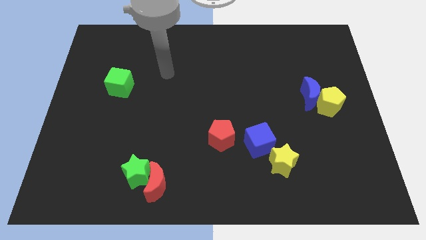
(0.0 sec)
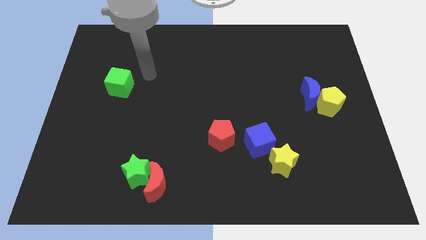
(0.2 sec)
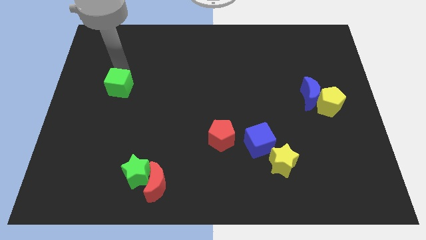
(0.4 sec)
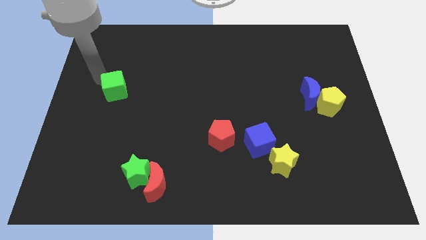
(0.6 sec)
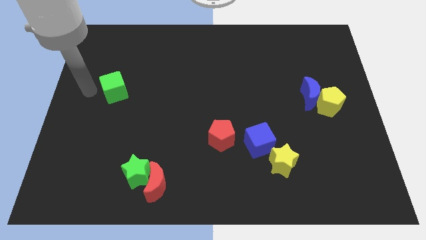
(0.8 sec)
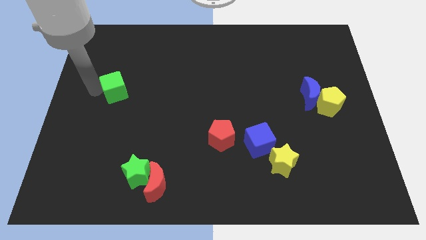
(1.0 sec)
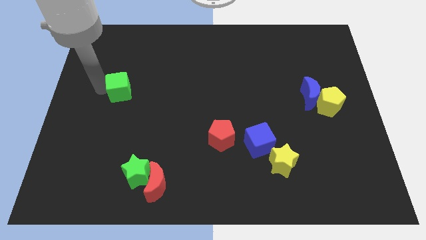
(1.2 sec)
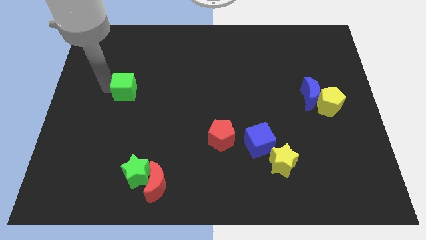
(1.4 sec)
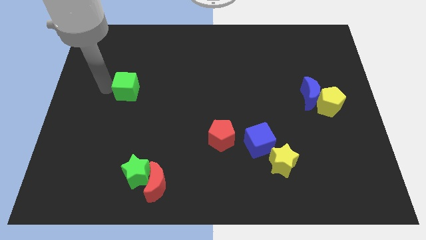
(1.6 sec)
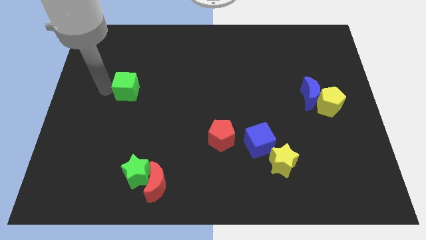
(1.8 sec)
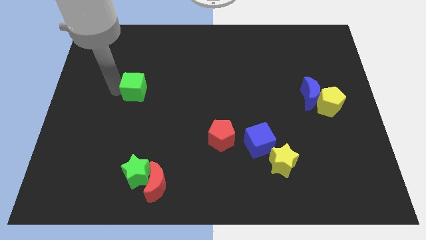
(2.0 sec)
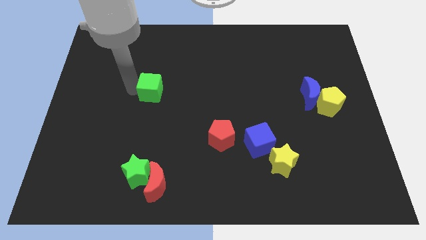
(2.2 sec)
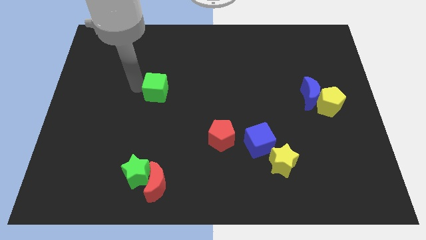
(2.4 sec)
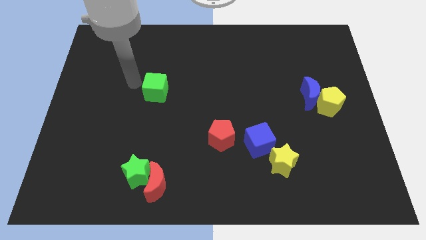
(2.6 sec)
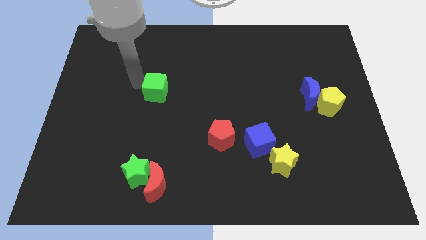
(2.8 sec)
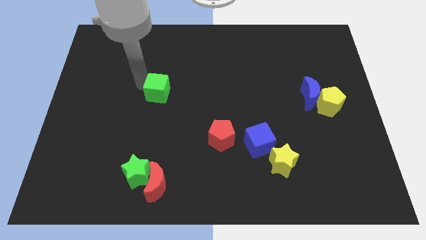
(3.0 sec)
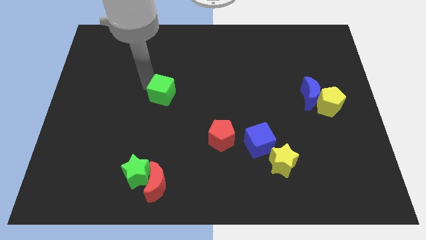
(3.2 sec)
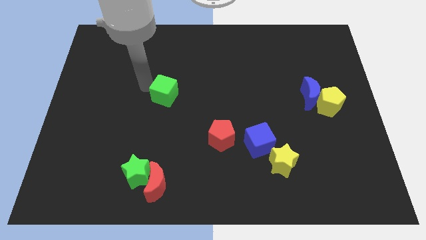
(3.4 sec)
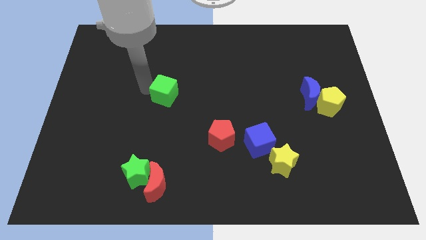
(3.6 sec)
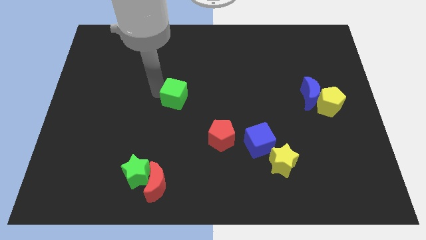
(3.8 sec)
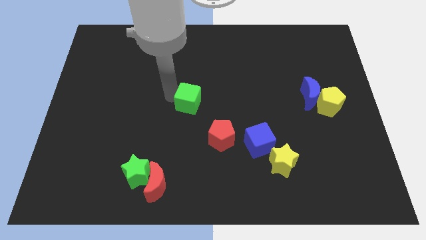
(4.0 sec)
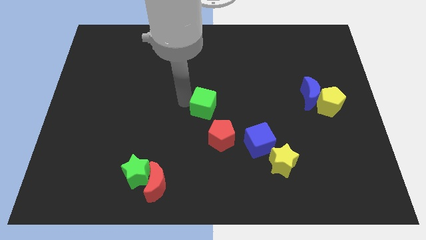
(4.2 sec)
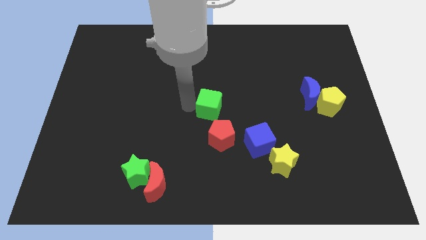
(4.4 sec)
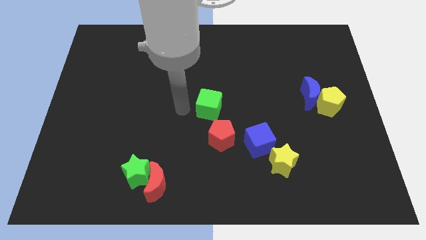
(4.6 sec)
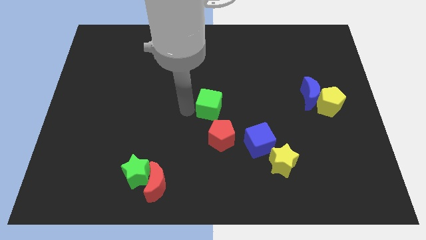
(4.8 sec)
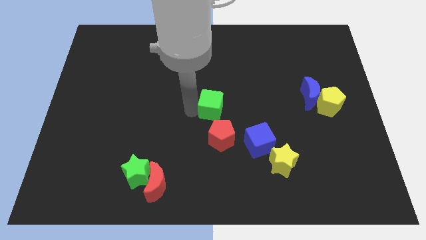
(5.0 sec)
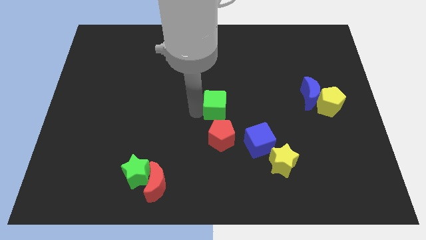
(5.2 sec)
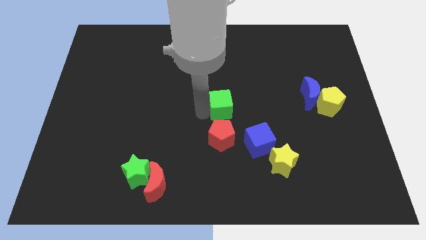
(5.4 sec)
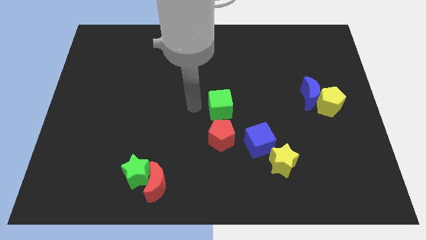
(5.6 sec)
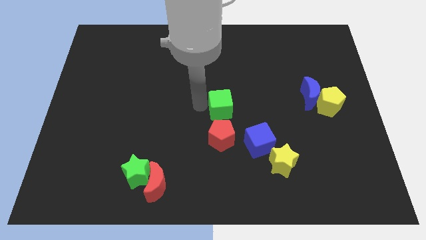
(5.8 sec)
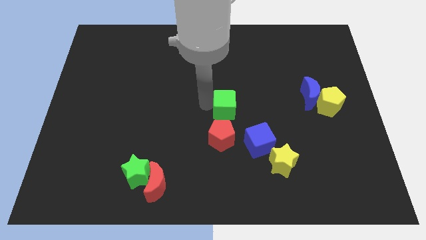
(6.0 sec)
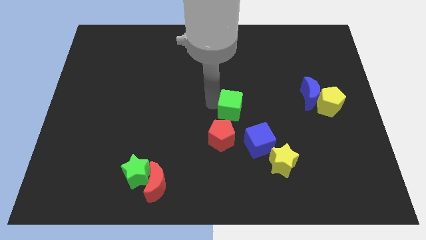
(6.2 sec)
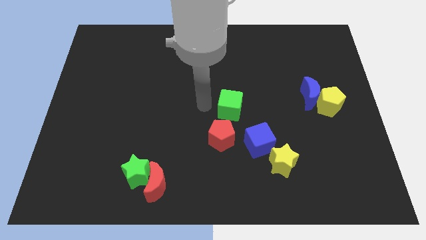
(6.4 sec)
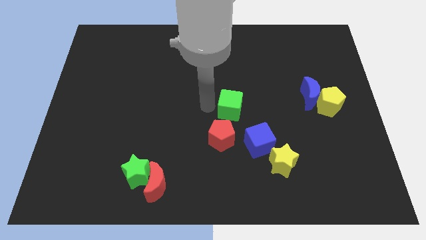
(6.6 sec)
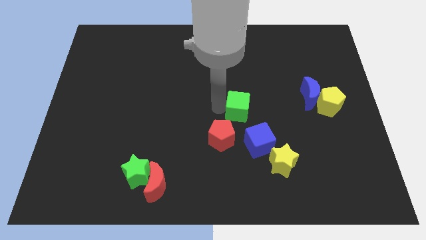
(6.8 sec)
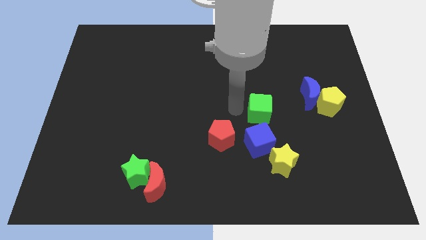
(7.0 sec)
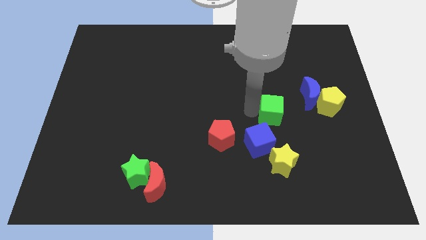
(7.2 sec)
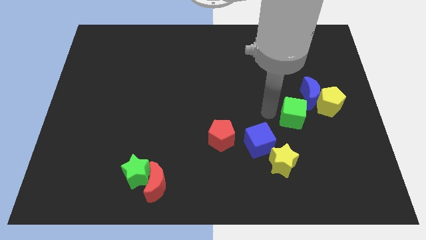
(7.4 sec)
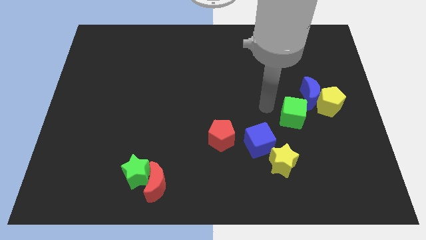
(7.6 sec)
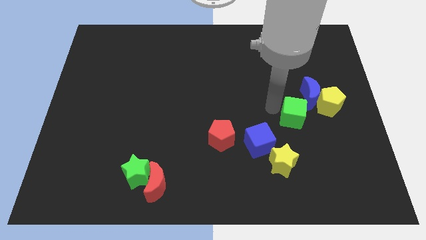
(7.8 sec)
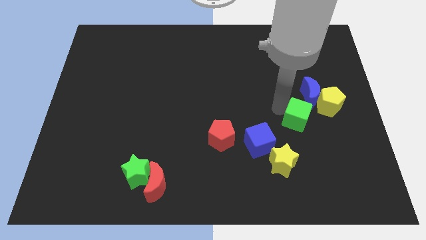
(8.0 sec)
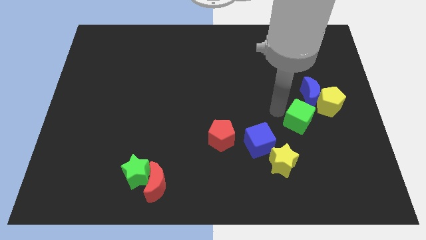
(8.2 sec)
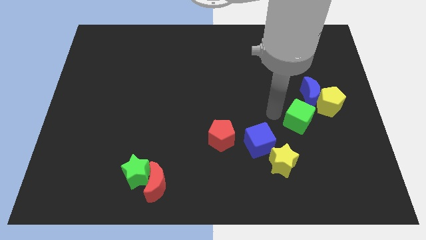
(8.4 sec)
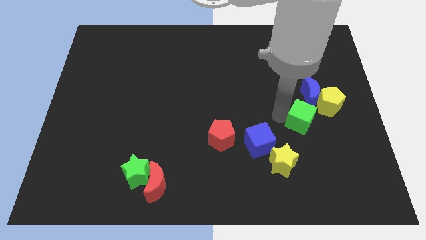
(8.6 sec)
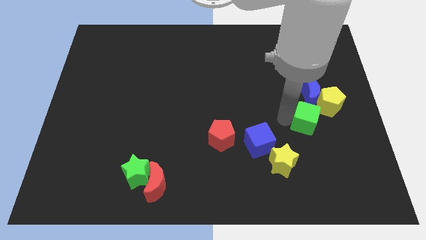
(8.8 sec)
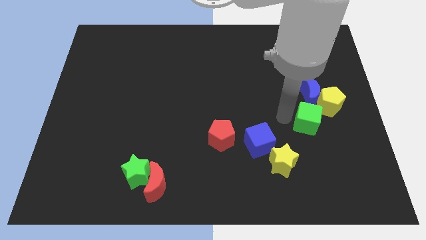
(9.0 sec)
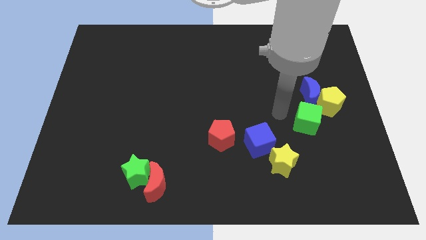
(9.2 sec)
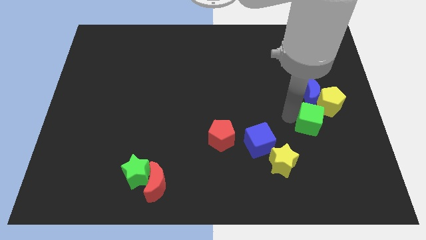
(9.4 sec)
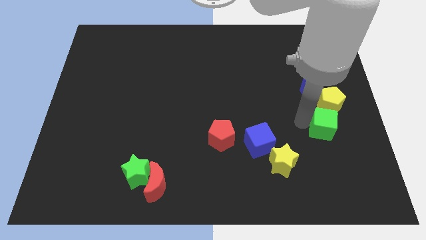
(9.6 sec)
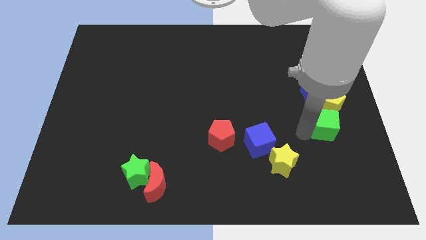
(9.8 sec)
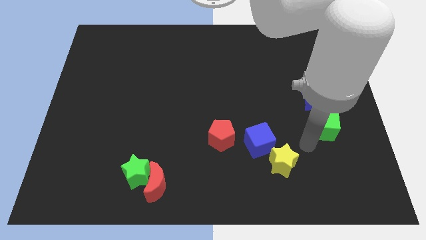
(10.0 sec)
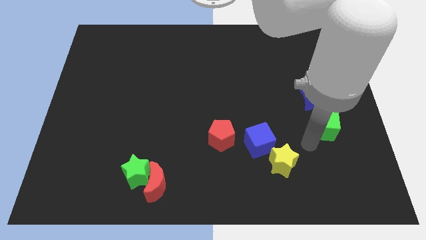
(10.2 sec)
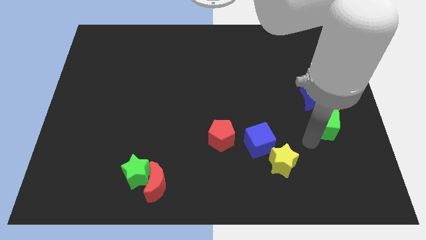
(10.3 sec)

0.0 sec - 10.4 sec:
move the green cube to the bottom right of the blue moon
